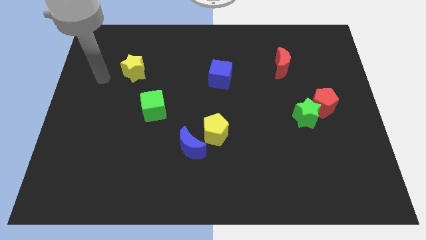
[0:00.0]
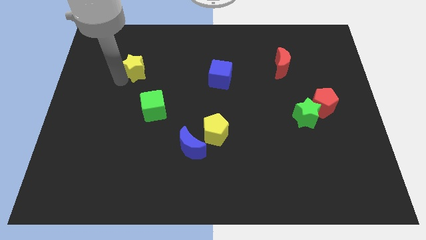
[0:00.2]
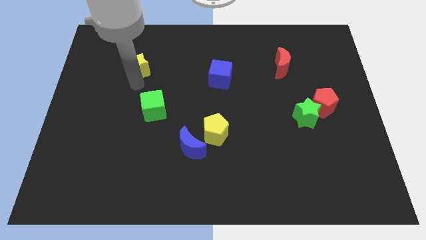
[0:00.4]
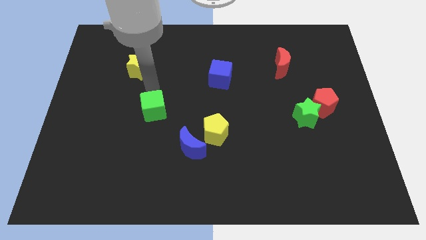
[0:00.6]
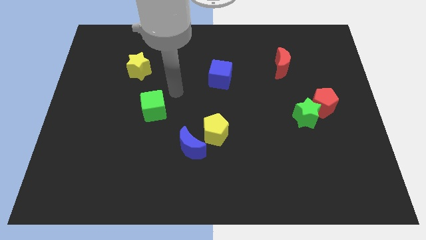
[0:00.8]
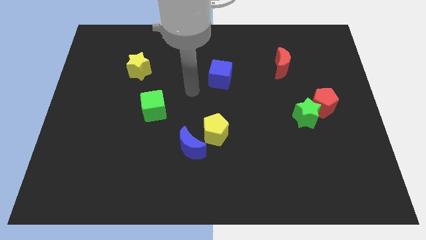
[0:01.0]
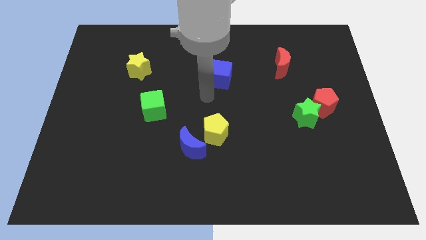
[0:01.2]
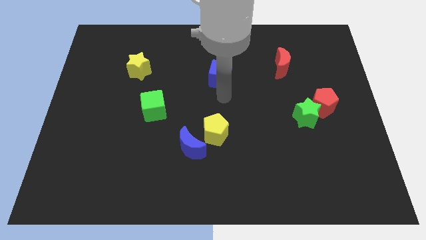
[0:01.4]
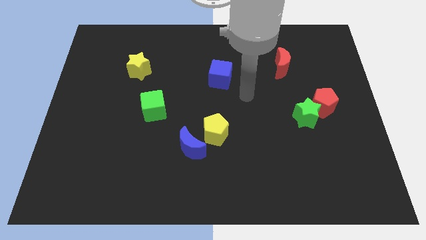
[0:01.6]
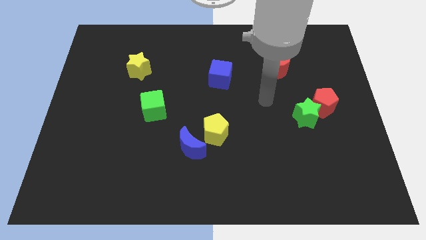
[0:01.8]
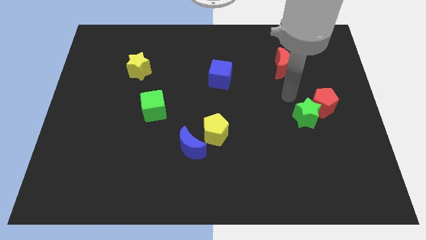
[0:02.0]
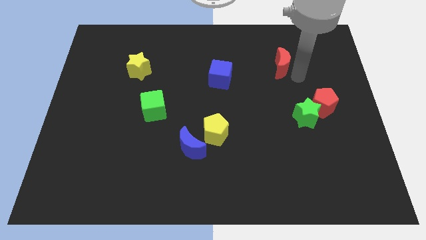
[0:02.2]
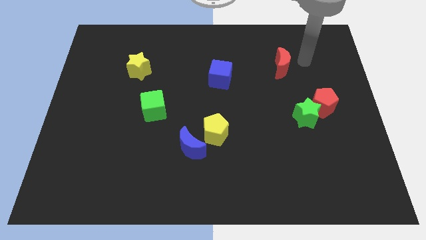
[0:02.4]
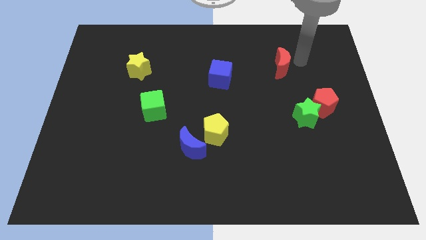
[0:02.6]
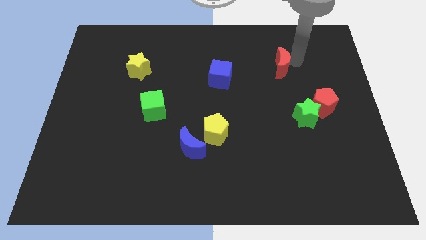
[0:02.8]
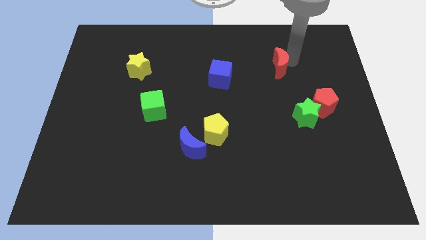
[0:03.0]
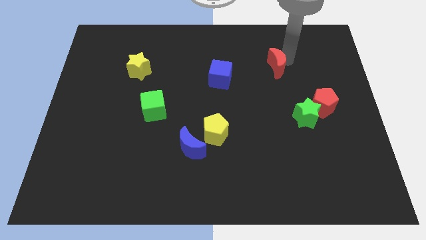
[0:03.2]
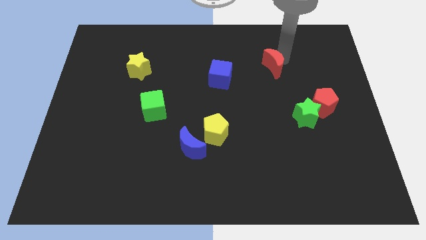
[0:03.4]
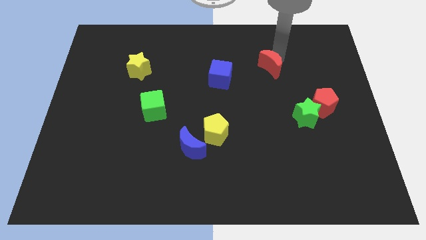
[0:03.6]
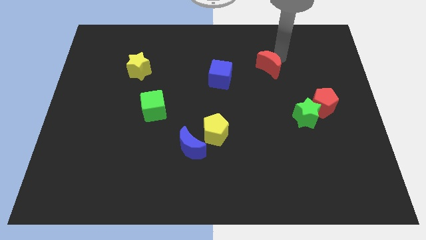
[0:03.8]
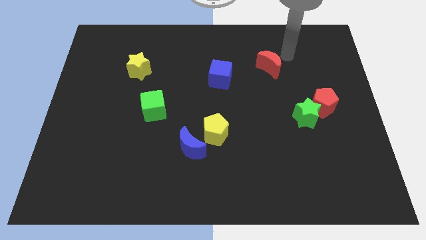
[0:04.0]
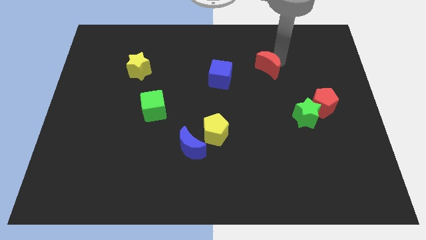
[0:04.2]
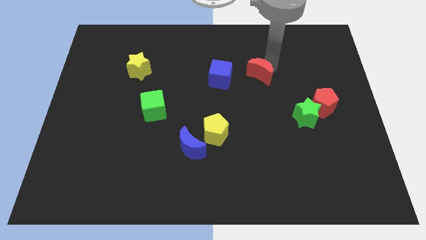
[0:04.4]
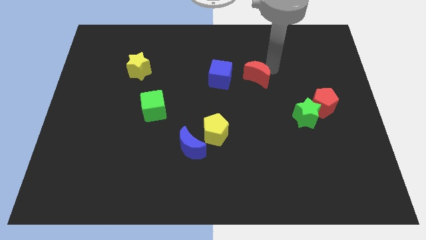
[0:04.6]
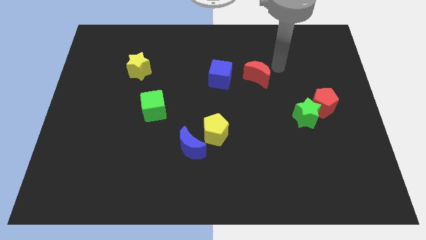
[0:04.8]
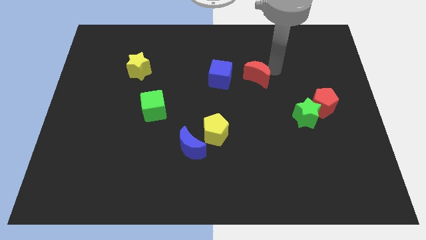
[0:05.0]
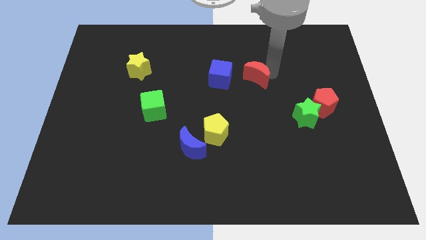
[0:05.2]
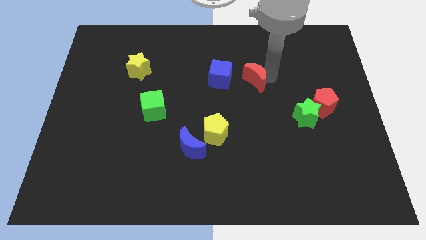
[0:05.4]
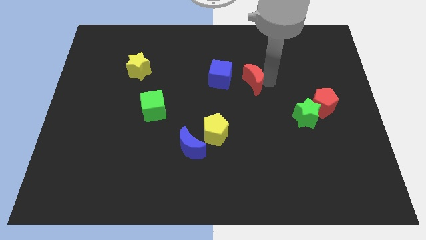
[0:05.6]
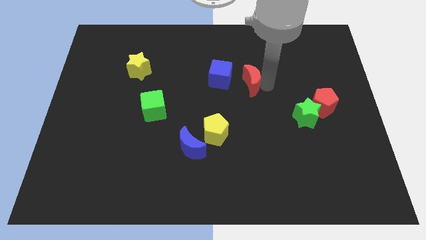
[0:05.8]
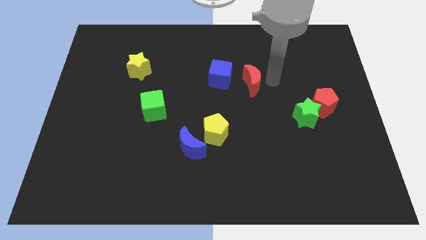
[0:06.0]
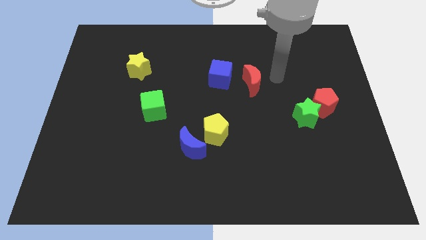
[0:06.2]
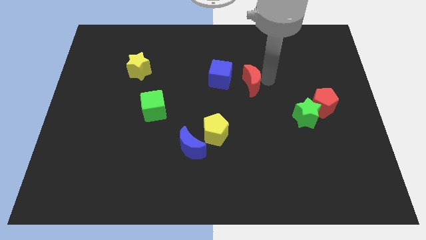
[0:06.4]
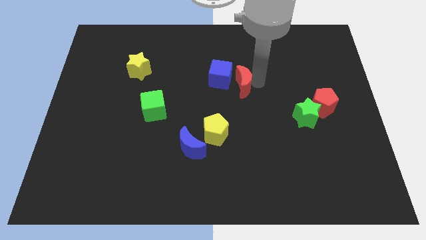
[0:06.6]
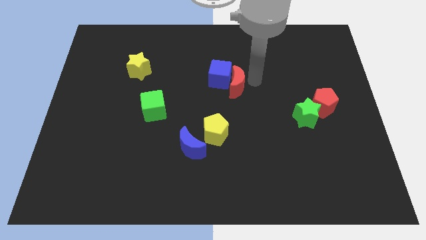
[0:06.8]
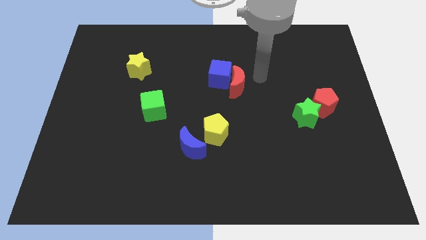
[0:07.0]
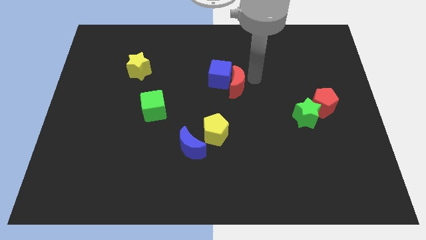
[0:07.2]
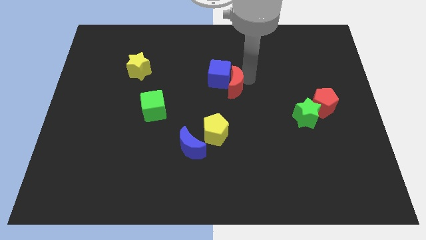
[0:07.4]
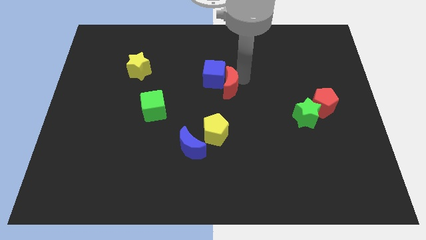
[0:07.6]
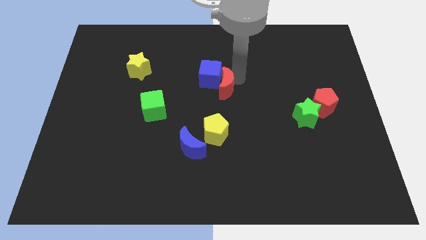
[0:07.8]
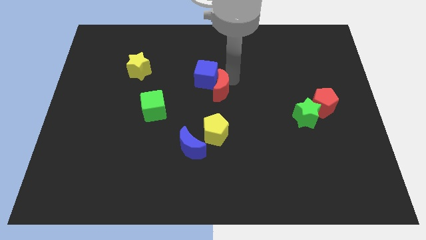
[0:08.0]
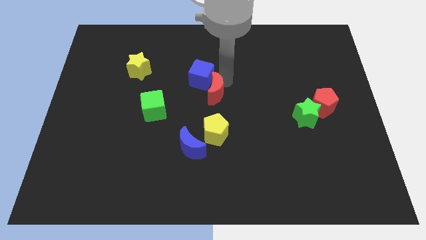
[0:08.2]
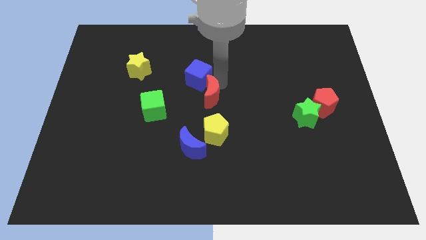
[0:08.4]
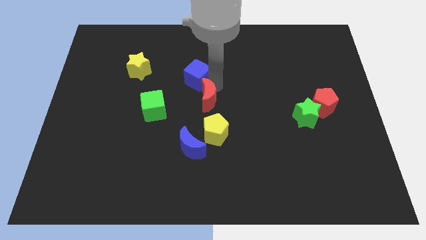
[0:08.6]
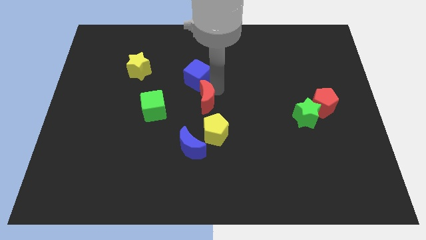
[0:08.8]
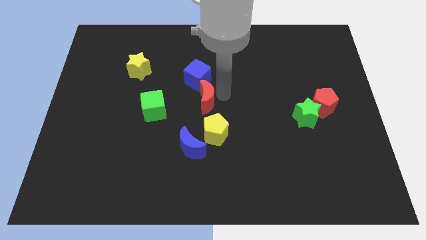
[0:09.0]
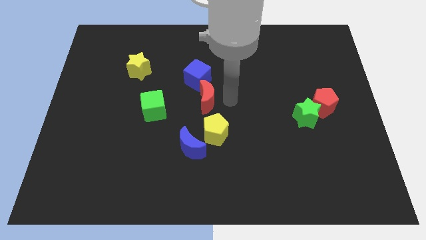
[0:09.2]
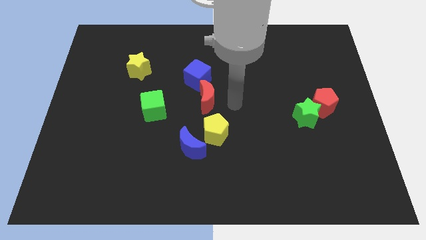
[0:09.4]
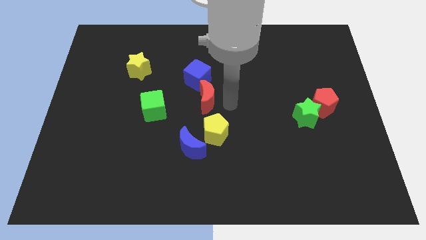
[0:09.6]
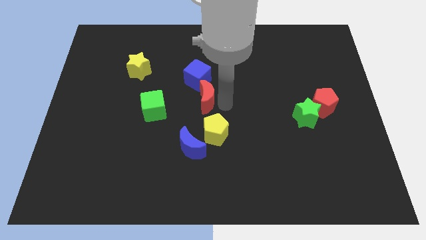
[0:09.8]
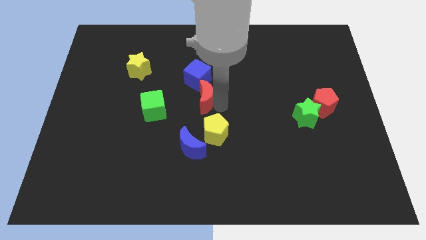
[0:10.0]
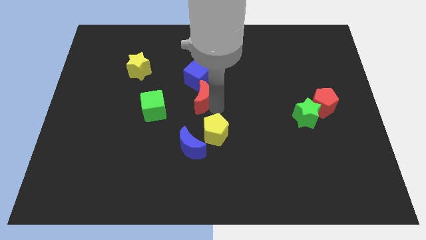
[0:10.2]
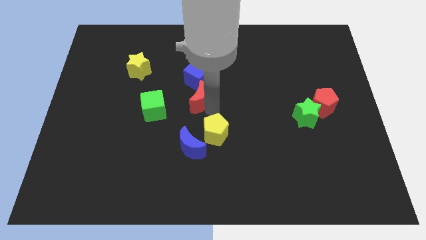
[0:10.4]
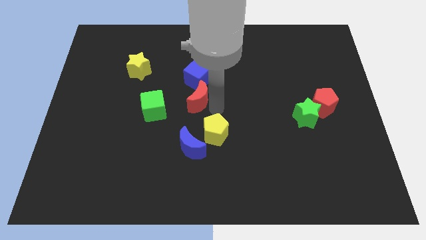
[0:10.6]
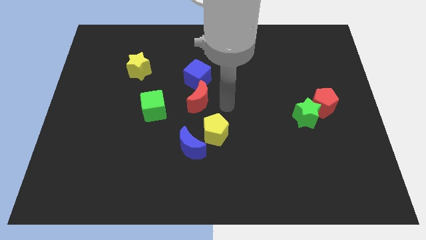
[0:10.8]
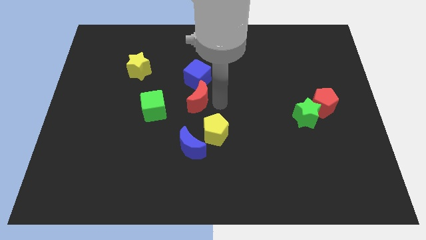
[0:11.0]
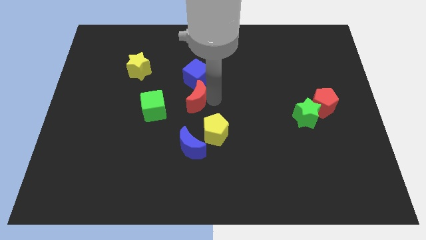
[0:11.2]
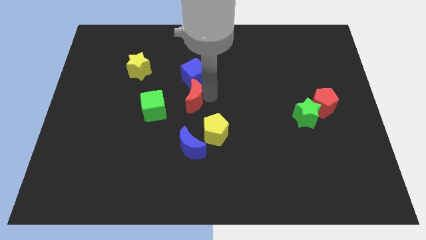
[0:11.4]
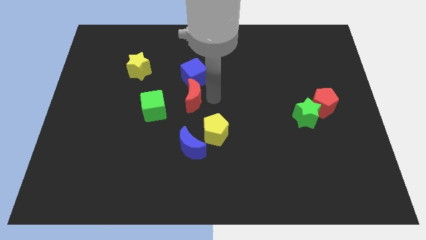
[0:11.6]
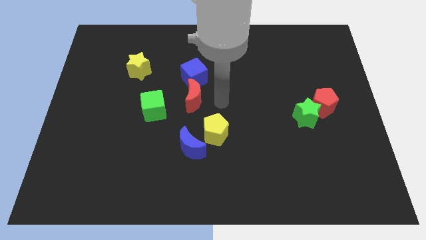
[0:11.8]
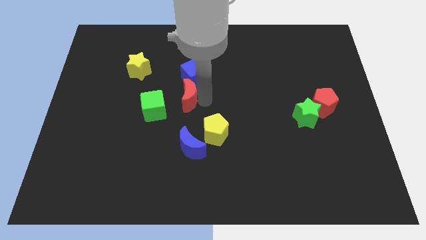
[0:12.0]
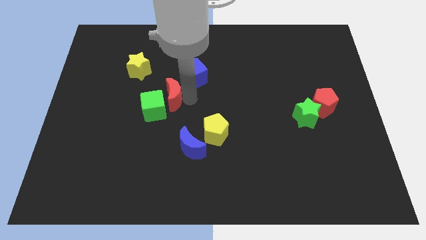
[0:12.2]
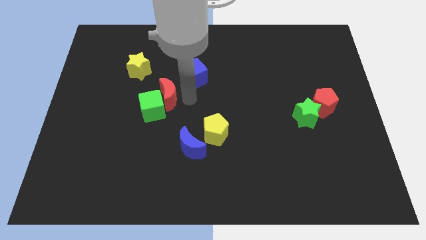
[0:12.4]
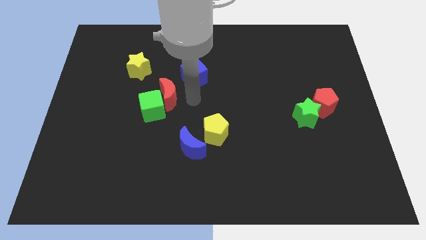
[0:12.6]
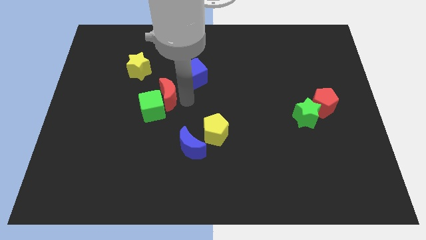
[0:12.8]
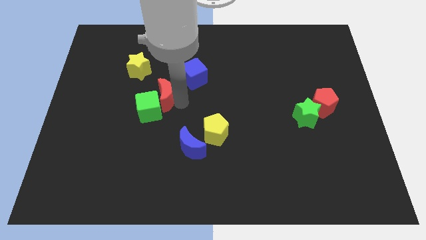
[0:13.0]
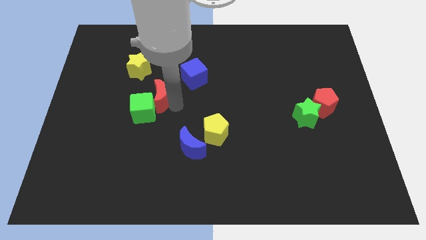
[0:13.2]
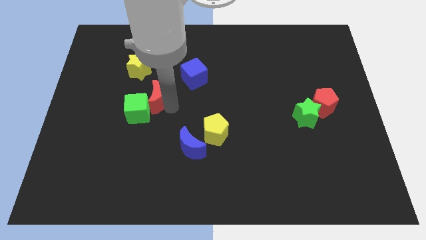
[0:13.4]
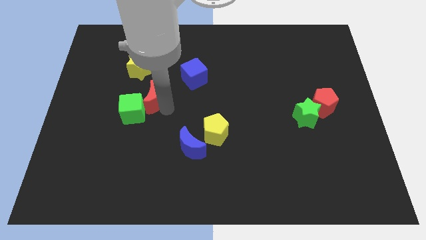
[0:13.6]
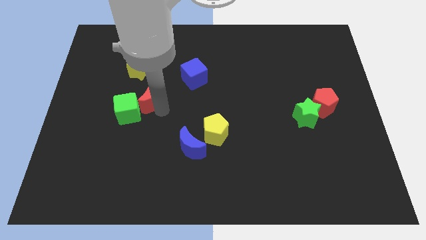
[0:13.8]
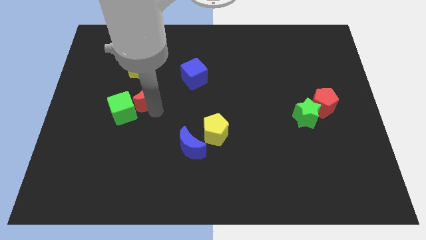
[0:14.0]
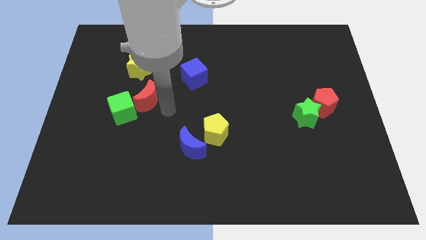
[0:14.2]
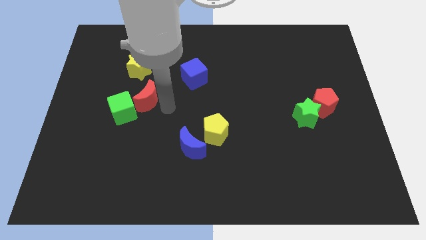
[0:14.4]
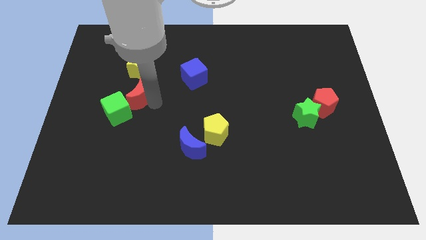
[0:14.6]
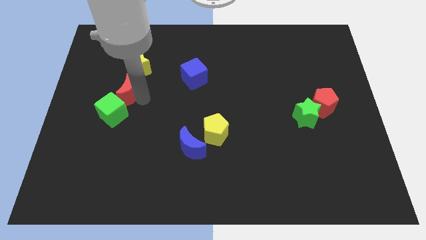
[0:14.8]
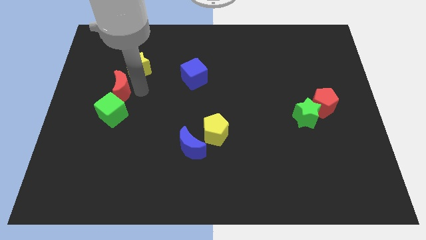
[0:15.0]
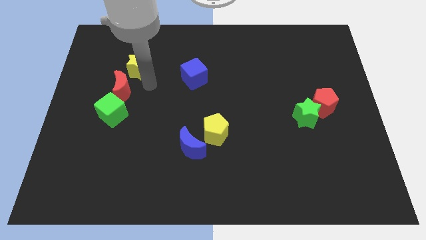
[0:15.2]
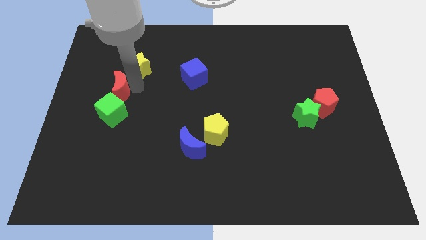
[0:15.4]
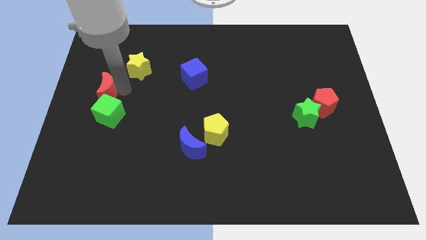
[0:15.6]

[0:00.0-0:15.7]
move the red moon to the center left
